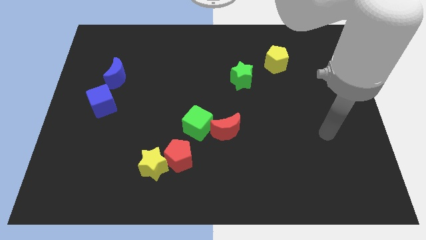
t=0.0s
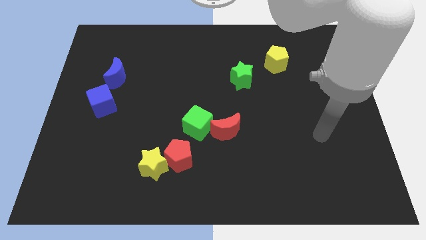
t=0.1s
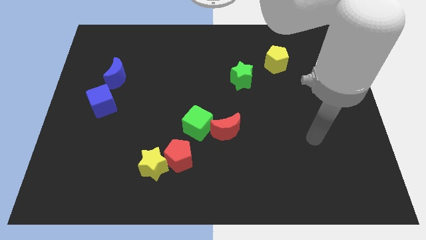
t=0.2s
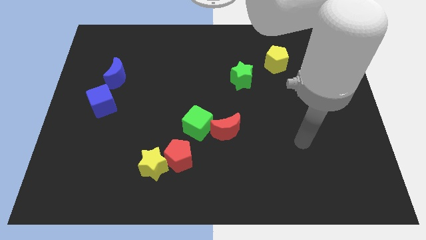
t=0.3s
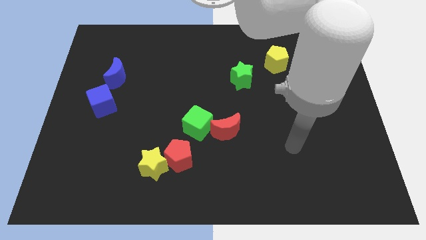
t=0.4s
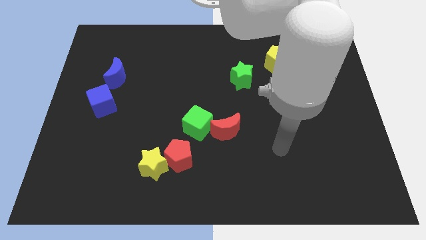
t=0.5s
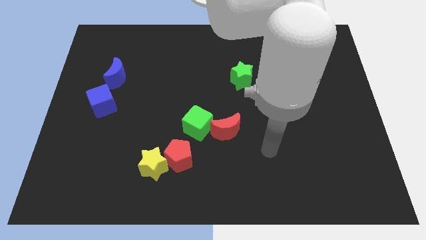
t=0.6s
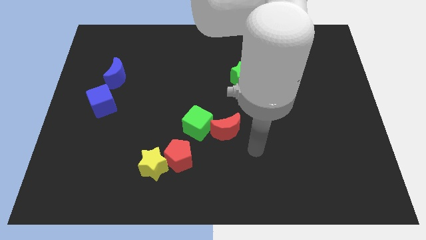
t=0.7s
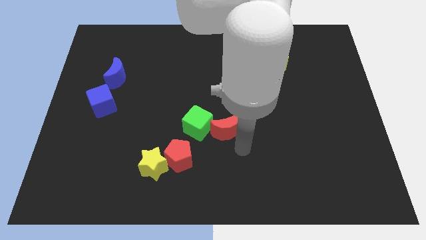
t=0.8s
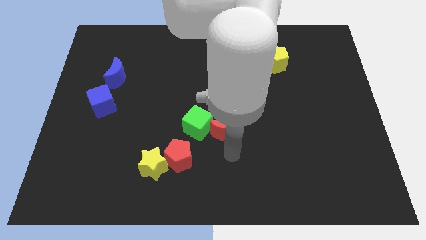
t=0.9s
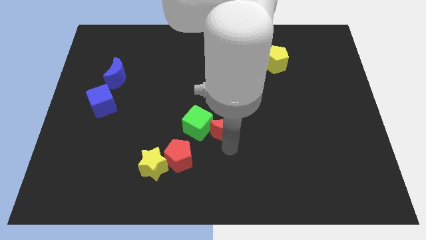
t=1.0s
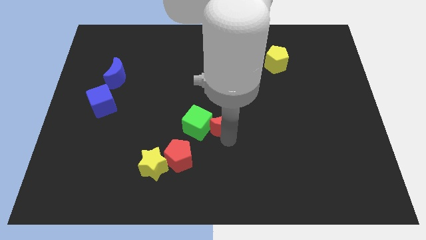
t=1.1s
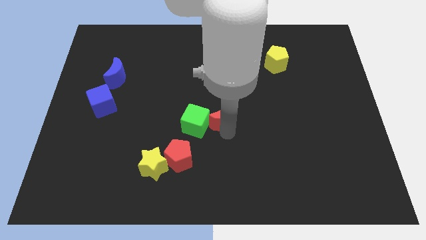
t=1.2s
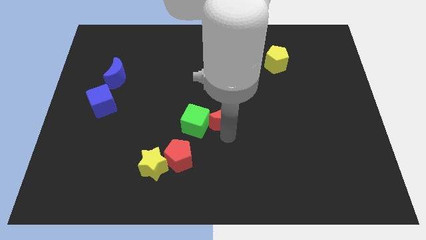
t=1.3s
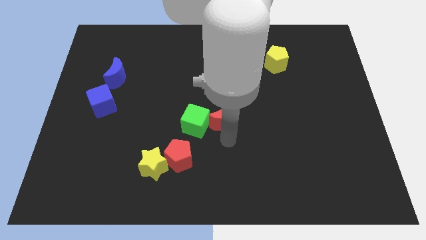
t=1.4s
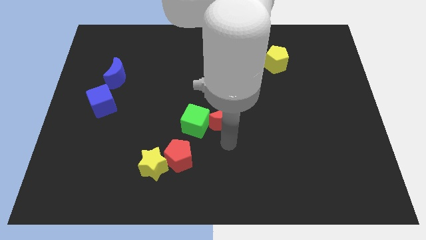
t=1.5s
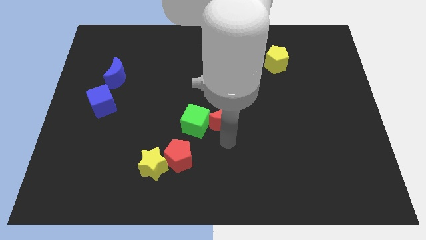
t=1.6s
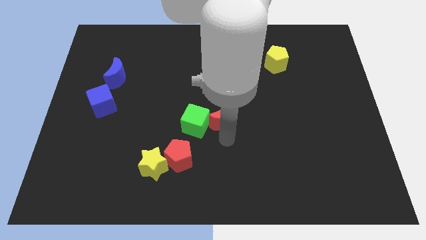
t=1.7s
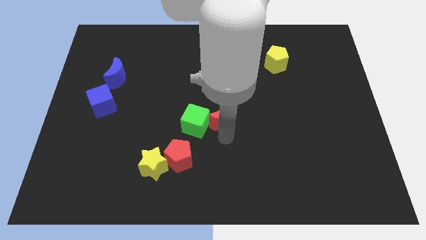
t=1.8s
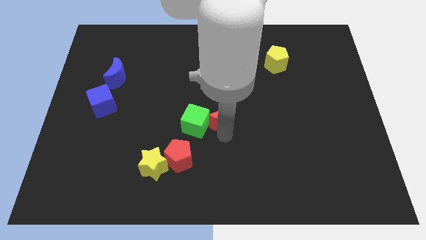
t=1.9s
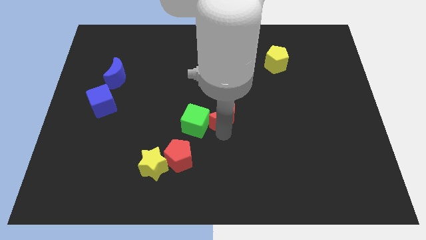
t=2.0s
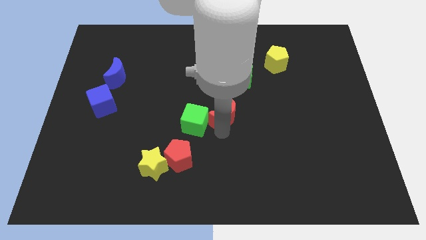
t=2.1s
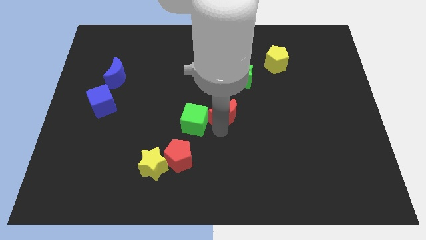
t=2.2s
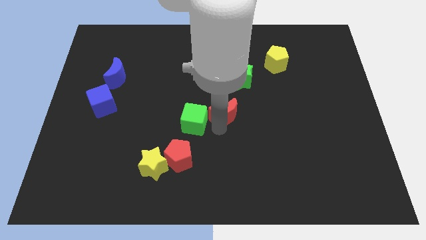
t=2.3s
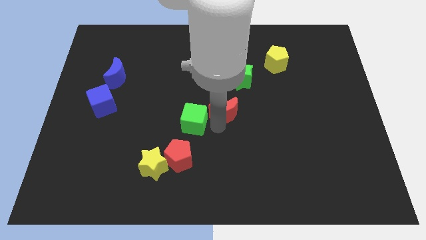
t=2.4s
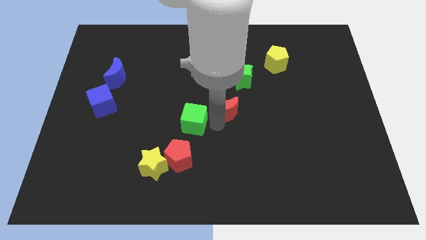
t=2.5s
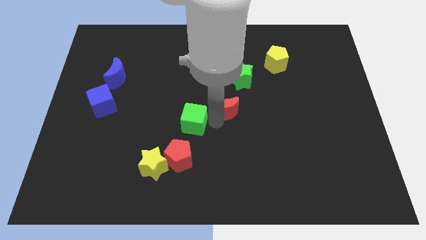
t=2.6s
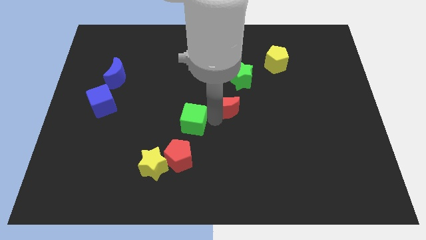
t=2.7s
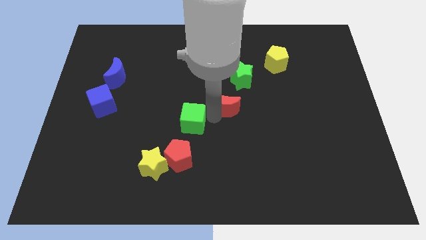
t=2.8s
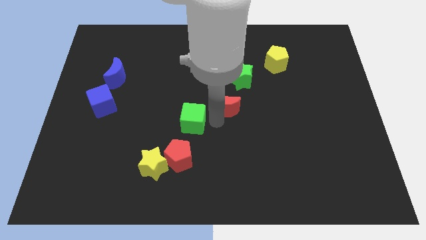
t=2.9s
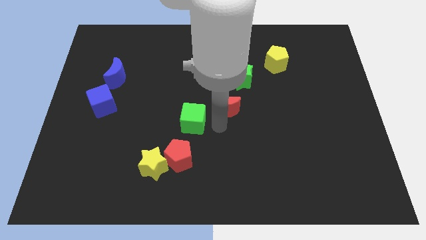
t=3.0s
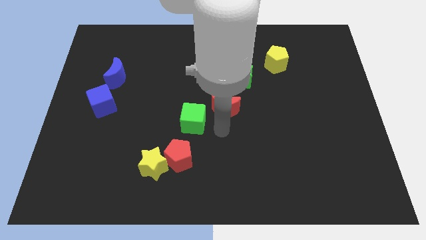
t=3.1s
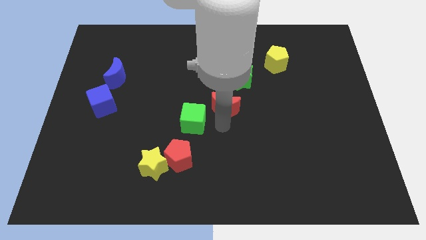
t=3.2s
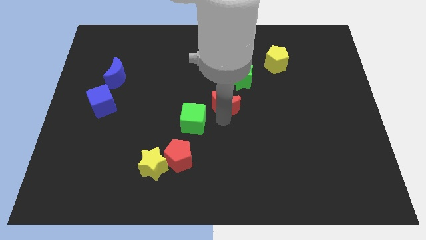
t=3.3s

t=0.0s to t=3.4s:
slide the red moon a little bit up

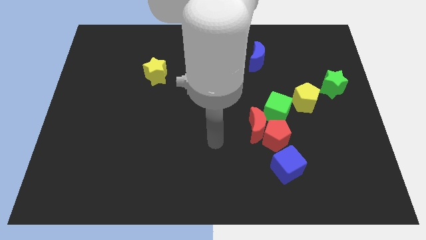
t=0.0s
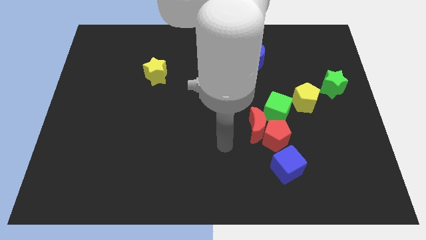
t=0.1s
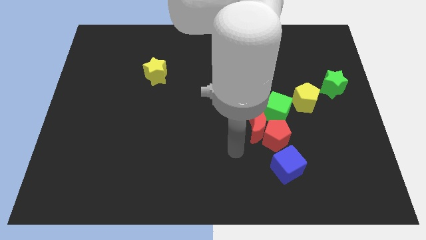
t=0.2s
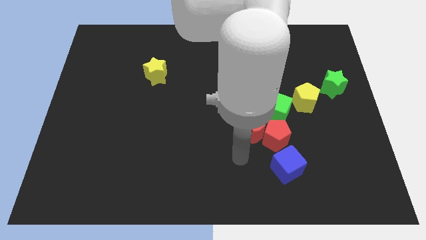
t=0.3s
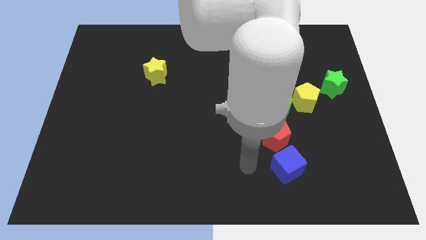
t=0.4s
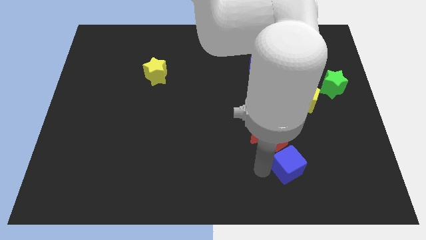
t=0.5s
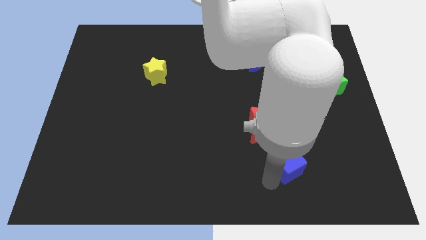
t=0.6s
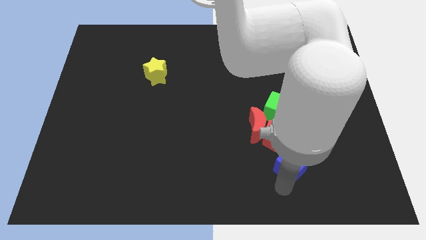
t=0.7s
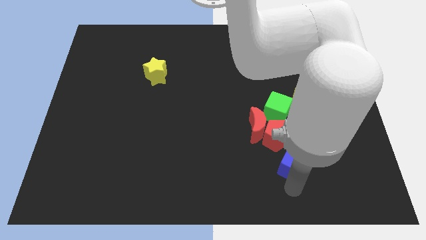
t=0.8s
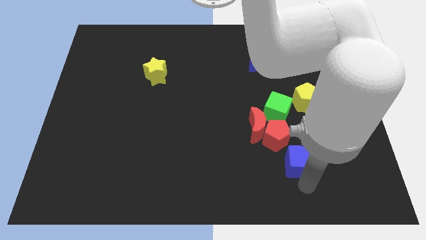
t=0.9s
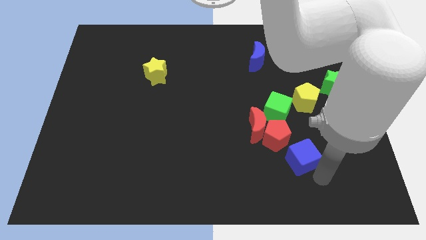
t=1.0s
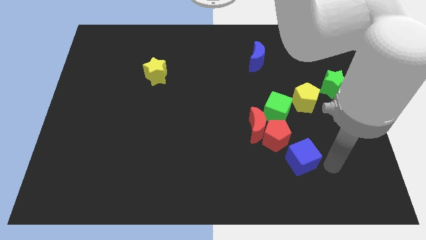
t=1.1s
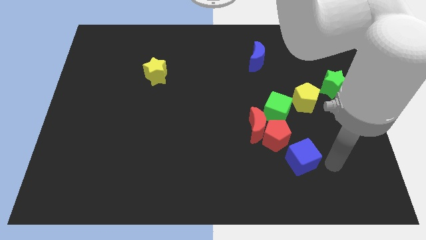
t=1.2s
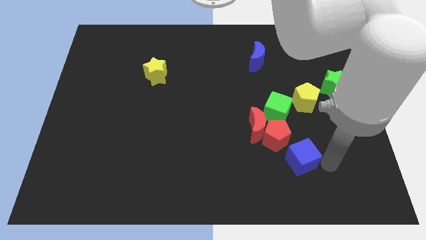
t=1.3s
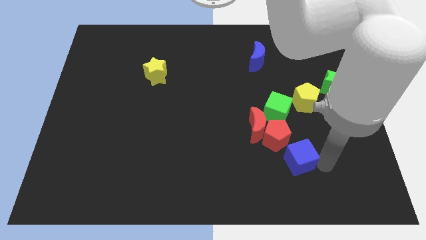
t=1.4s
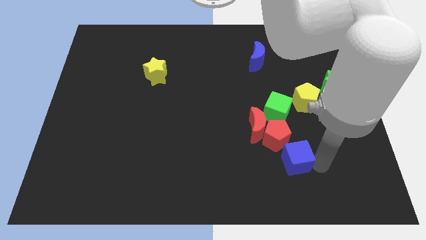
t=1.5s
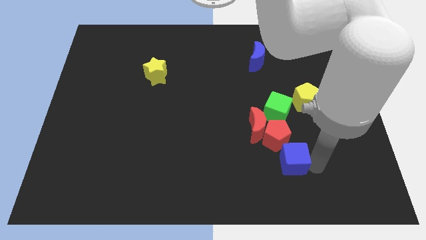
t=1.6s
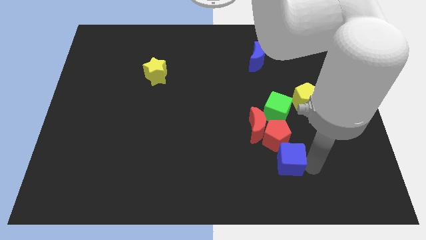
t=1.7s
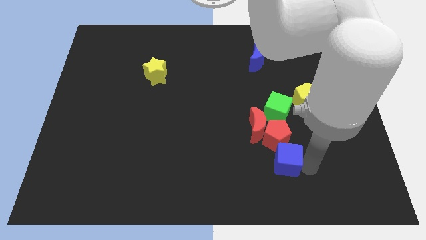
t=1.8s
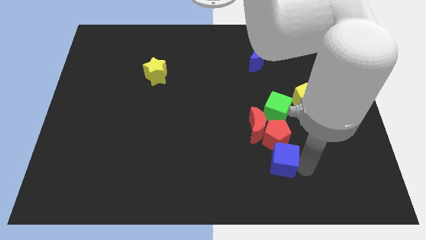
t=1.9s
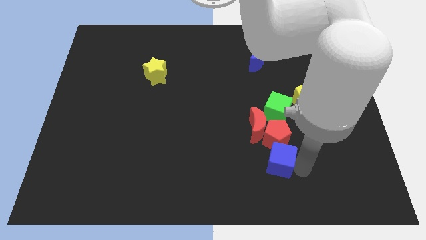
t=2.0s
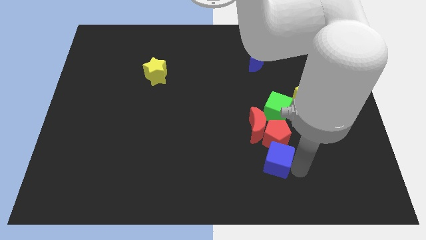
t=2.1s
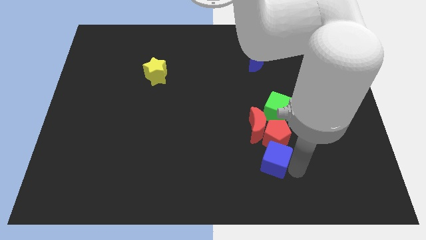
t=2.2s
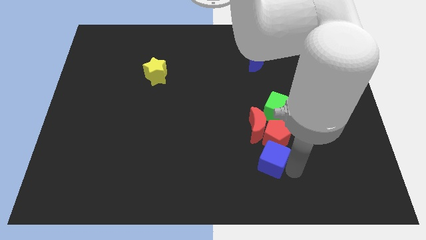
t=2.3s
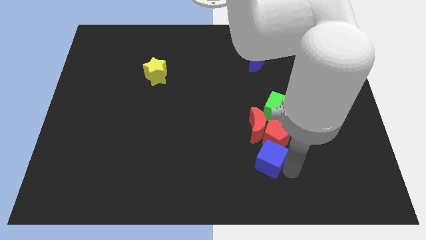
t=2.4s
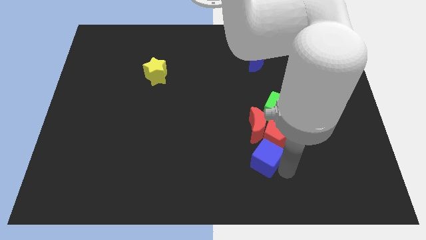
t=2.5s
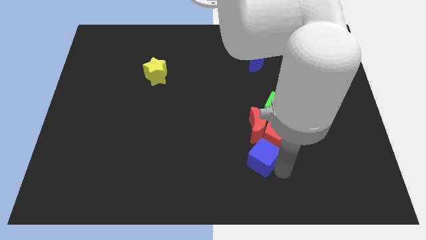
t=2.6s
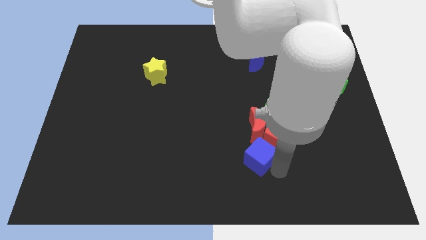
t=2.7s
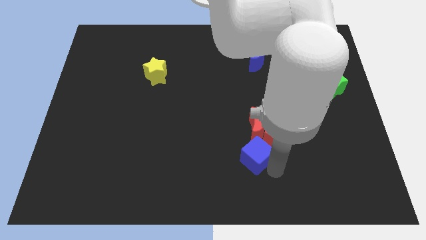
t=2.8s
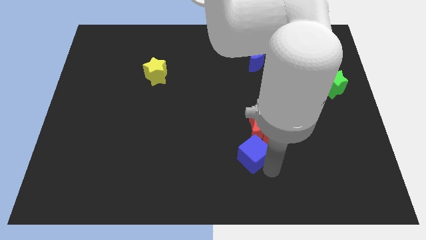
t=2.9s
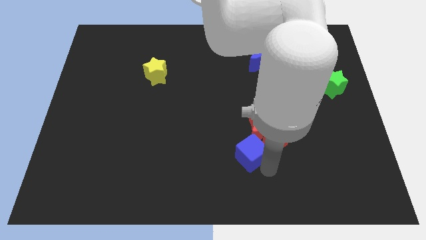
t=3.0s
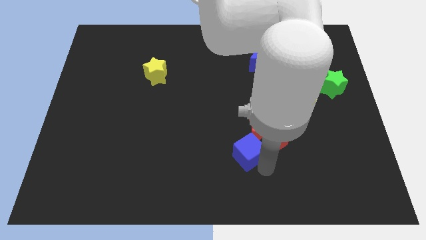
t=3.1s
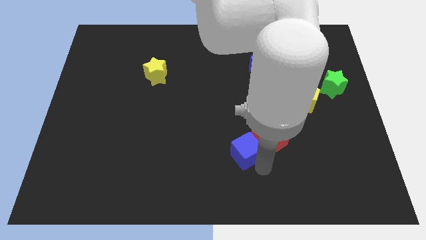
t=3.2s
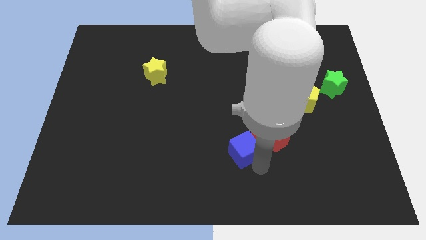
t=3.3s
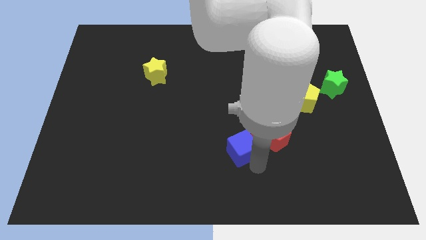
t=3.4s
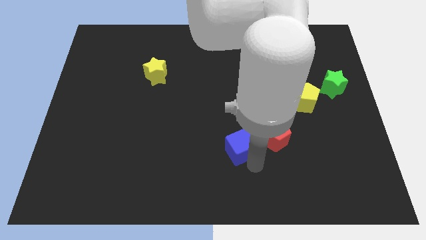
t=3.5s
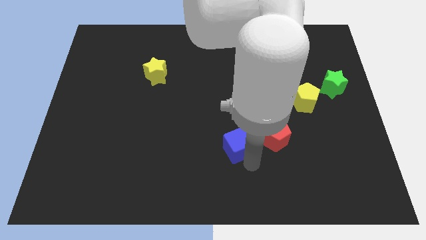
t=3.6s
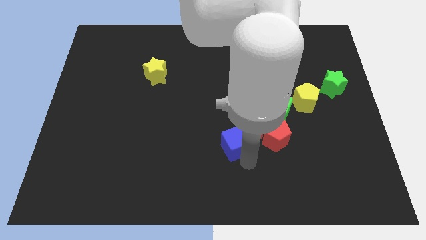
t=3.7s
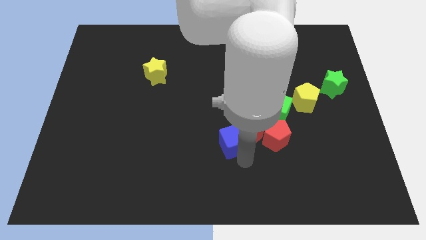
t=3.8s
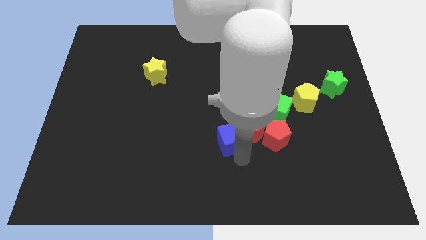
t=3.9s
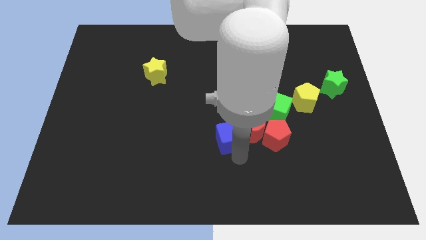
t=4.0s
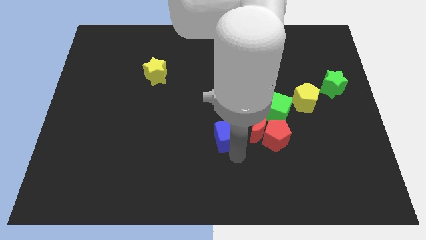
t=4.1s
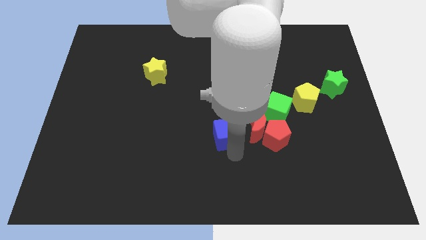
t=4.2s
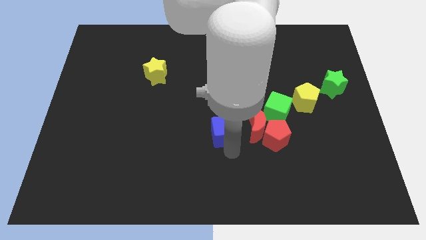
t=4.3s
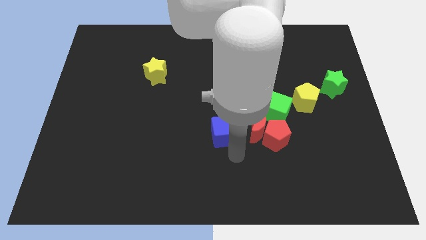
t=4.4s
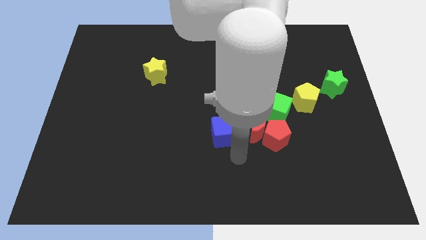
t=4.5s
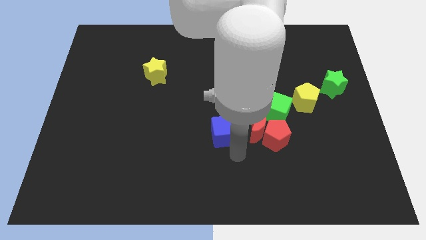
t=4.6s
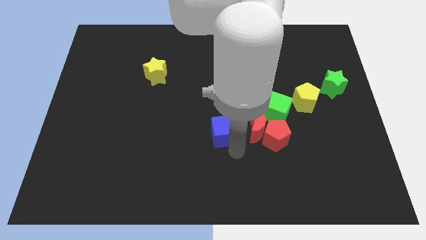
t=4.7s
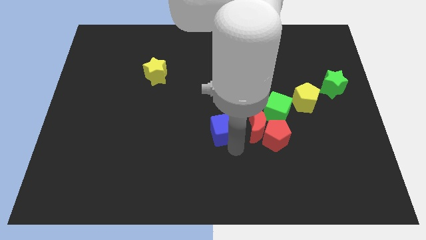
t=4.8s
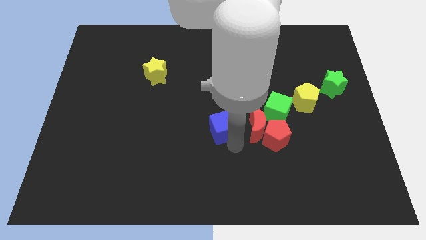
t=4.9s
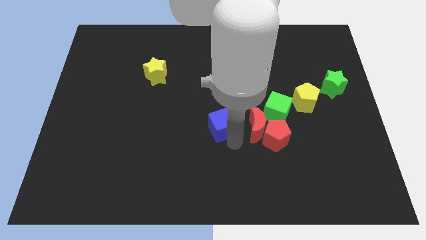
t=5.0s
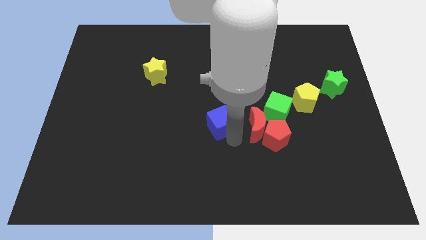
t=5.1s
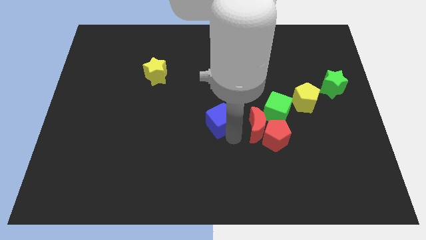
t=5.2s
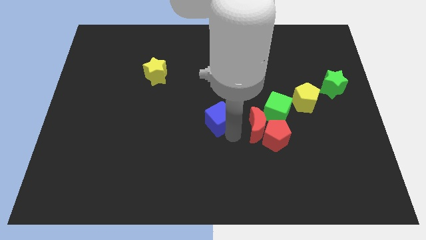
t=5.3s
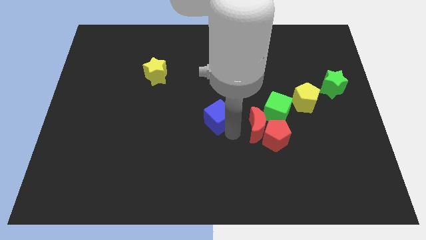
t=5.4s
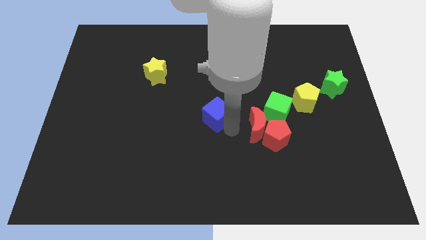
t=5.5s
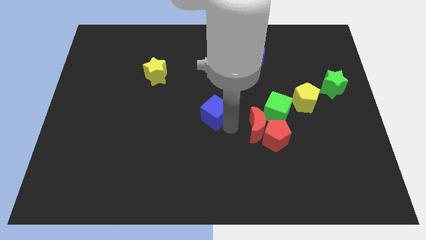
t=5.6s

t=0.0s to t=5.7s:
move the blue cube upwards and then left
